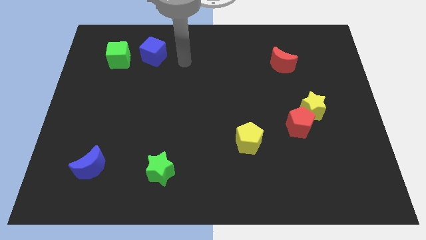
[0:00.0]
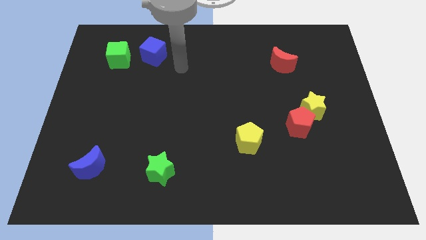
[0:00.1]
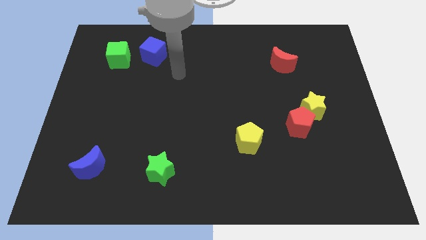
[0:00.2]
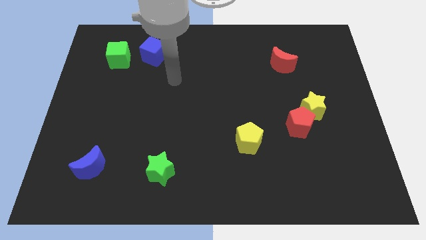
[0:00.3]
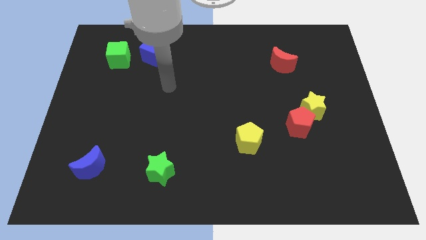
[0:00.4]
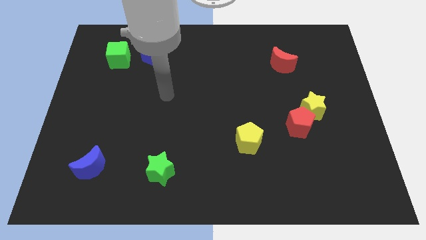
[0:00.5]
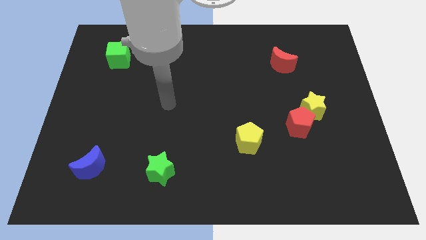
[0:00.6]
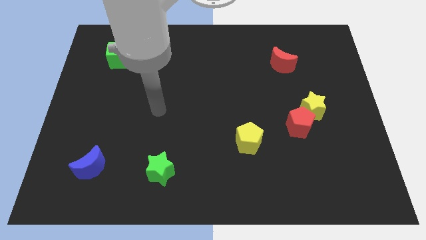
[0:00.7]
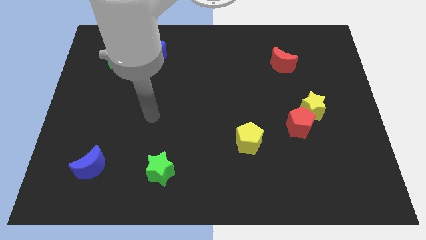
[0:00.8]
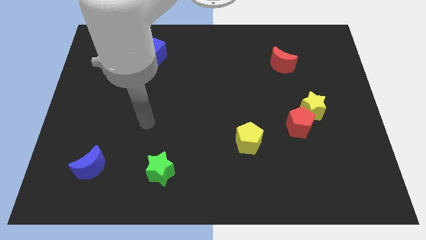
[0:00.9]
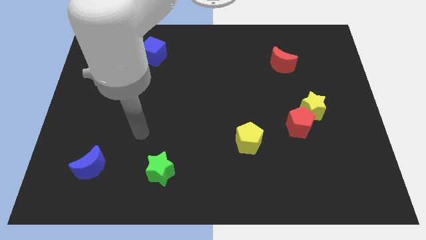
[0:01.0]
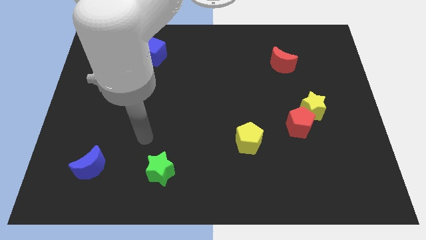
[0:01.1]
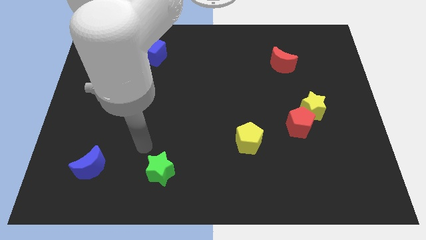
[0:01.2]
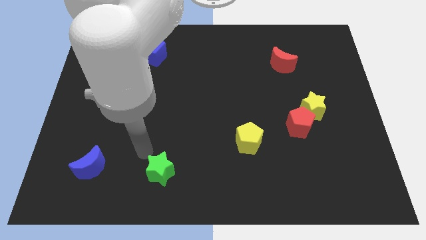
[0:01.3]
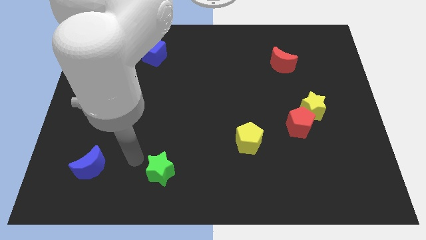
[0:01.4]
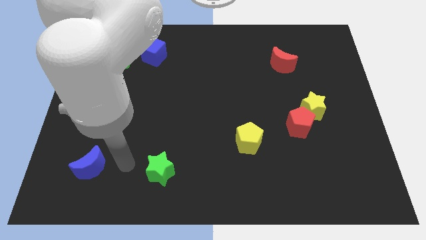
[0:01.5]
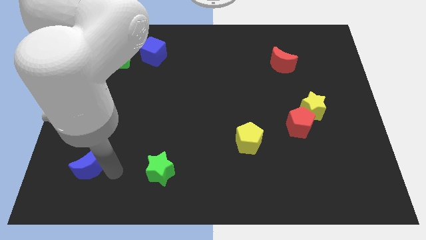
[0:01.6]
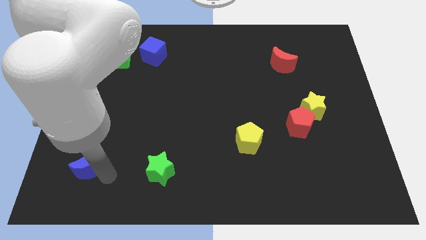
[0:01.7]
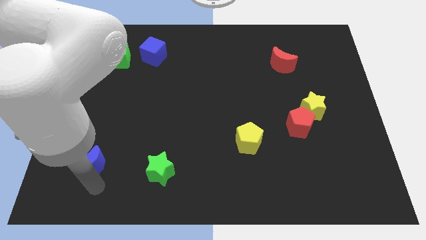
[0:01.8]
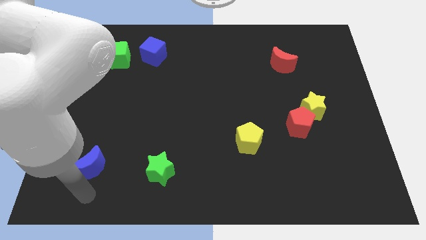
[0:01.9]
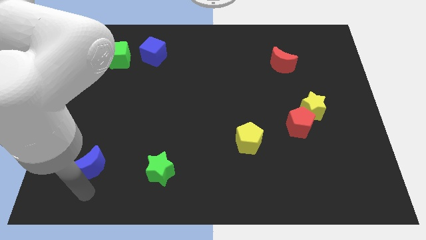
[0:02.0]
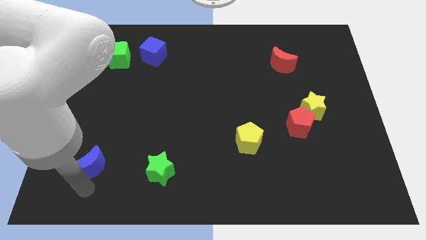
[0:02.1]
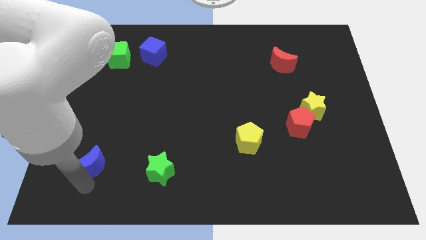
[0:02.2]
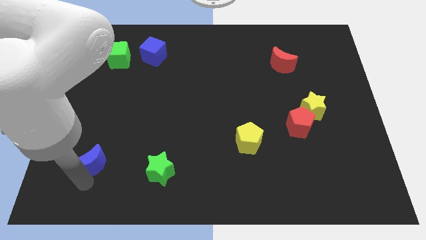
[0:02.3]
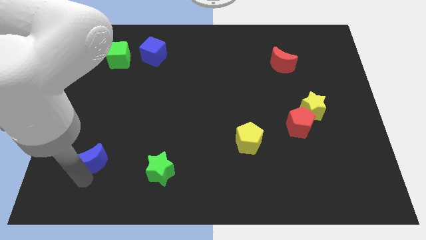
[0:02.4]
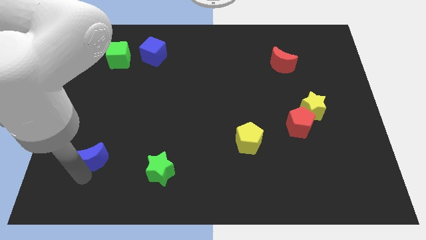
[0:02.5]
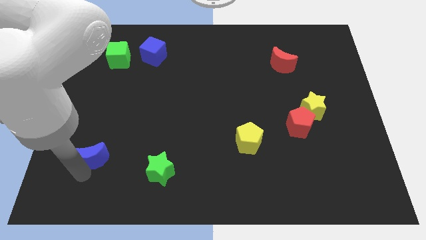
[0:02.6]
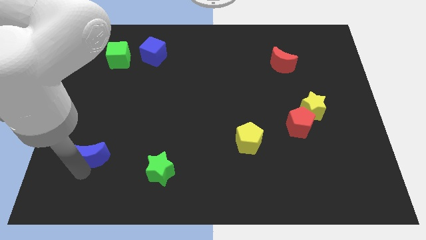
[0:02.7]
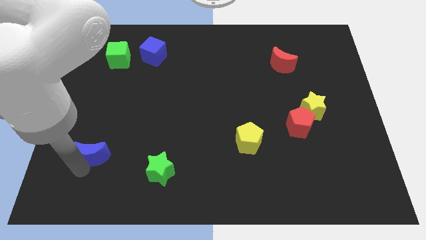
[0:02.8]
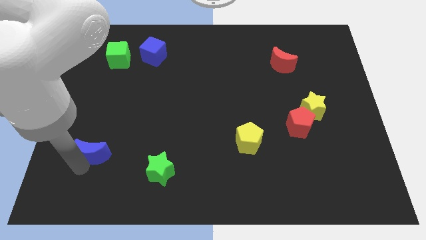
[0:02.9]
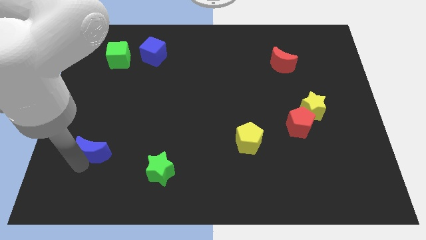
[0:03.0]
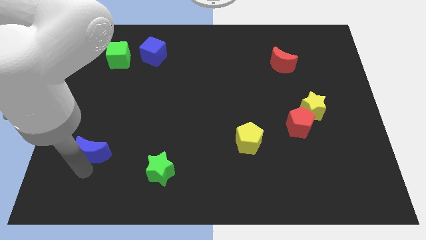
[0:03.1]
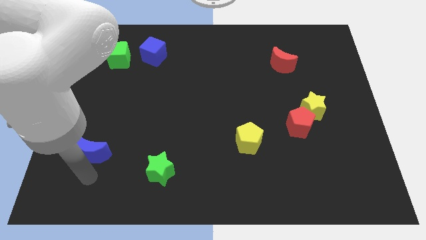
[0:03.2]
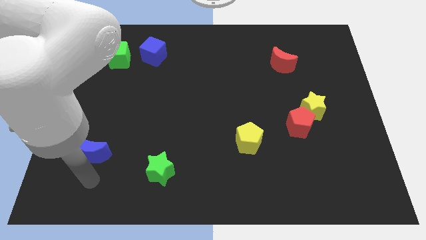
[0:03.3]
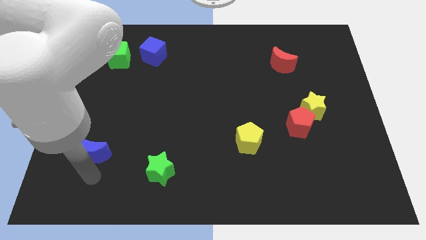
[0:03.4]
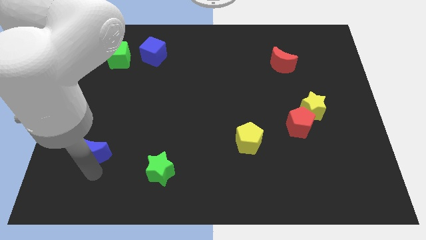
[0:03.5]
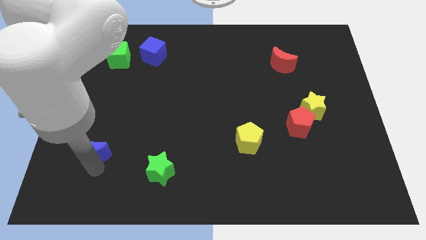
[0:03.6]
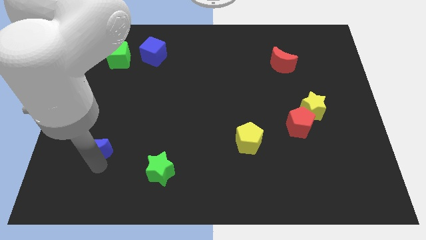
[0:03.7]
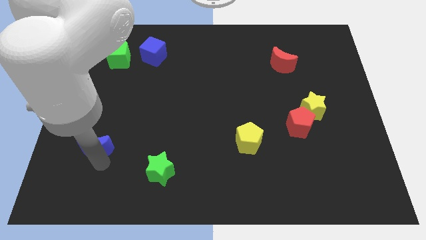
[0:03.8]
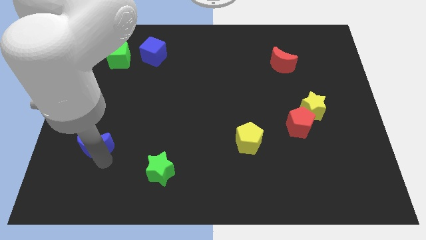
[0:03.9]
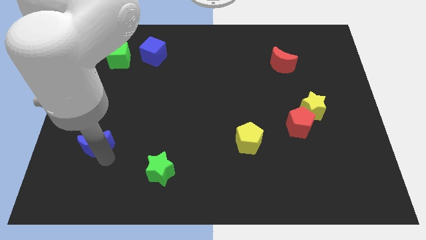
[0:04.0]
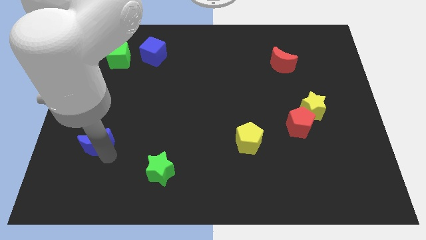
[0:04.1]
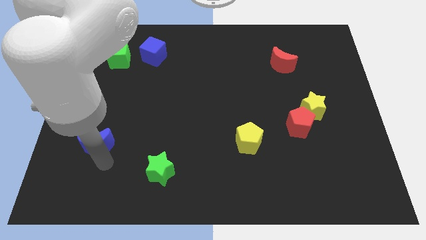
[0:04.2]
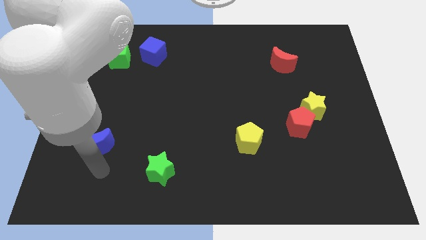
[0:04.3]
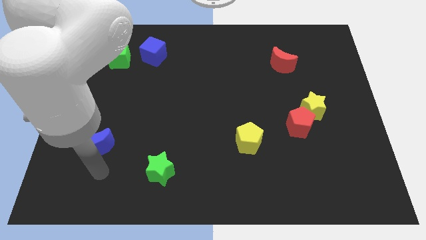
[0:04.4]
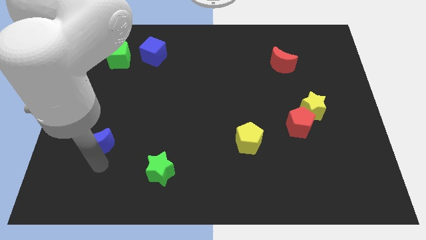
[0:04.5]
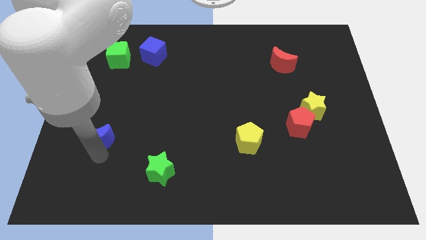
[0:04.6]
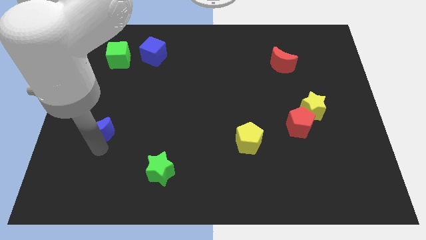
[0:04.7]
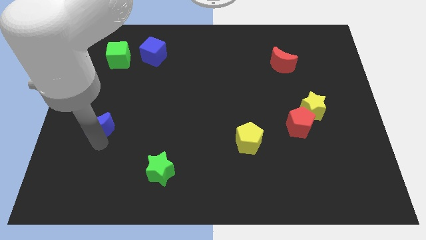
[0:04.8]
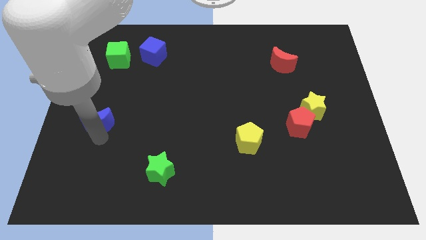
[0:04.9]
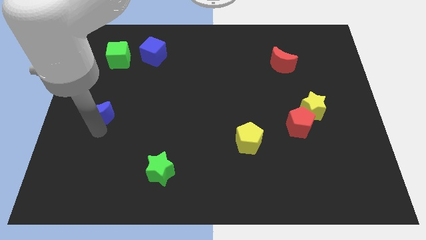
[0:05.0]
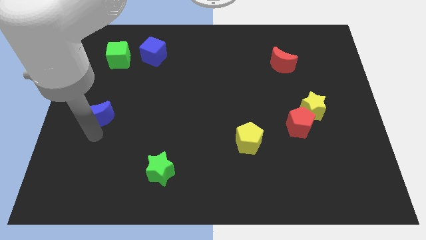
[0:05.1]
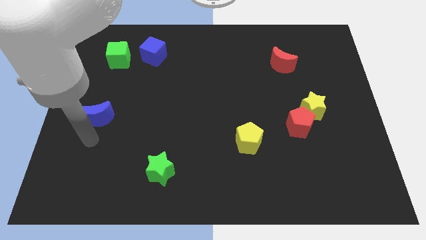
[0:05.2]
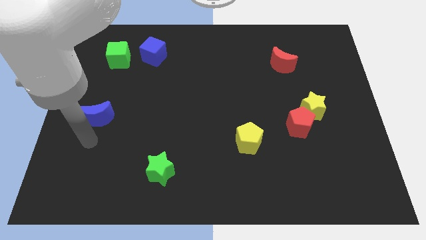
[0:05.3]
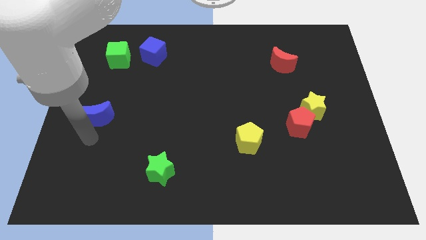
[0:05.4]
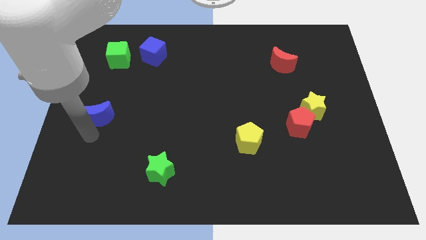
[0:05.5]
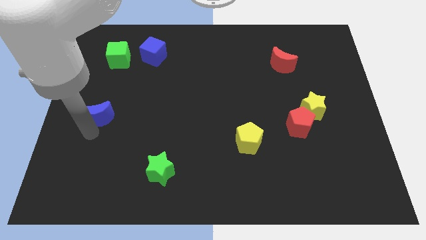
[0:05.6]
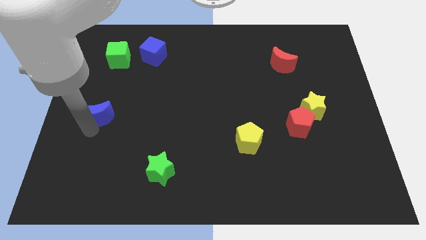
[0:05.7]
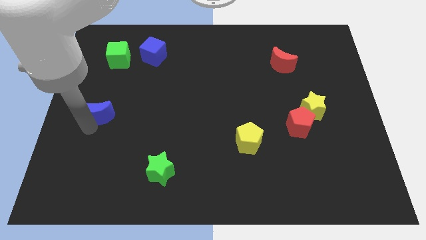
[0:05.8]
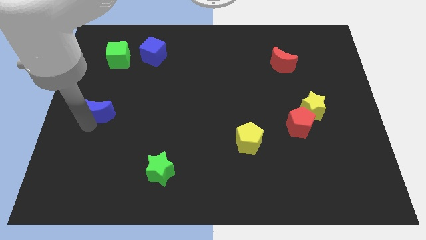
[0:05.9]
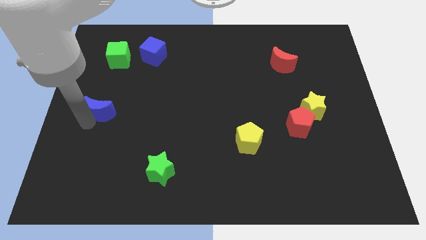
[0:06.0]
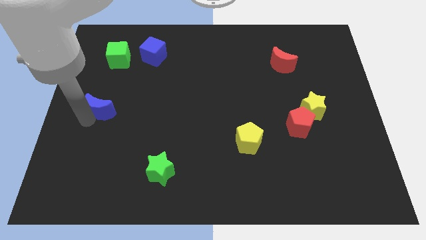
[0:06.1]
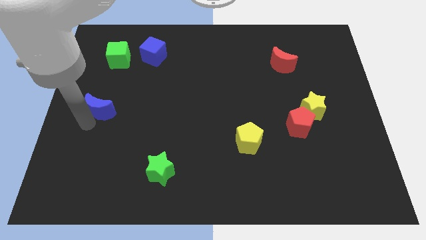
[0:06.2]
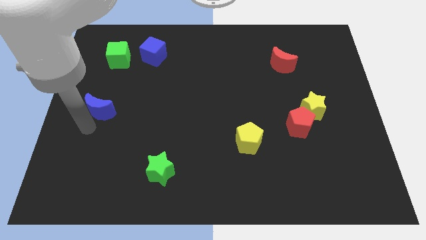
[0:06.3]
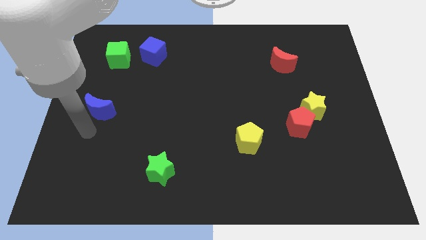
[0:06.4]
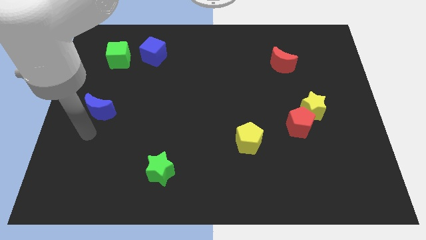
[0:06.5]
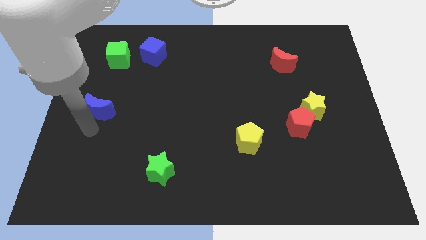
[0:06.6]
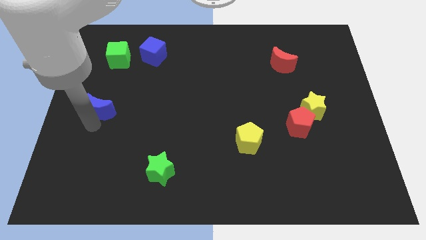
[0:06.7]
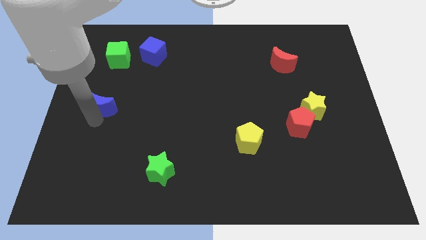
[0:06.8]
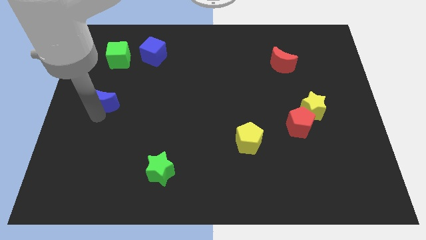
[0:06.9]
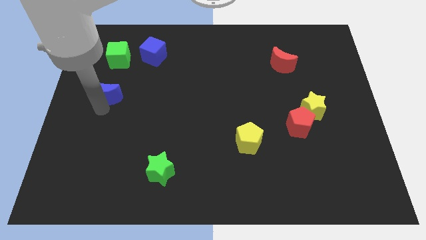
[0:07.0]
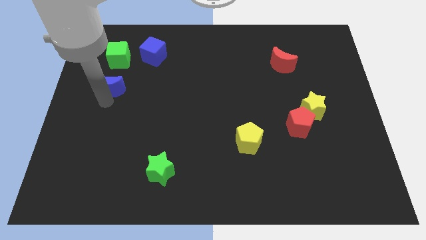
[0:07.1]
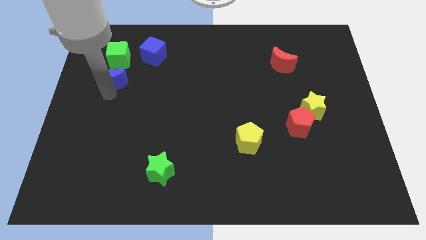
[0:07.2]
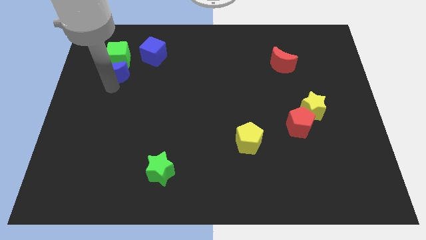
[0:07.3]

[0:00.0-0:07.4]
push the blue moon close to the green cube
